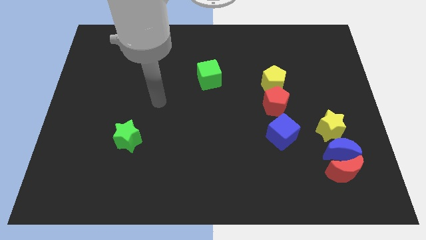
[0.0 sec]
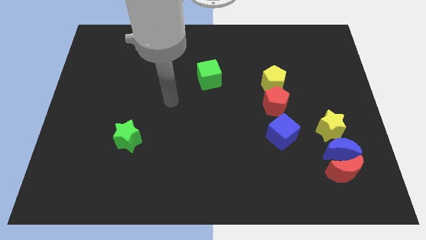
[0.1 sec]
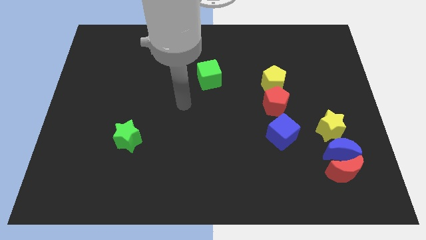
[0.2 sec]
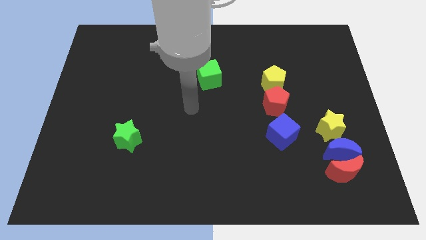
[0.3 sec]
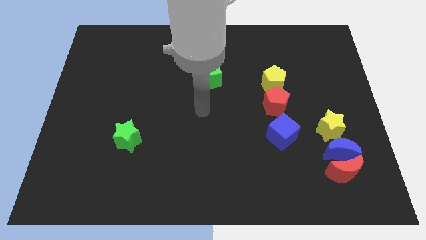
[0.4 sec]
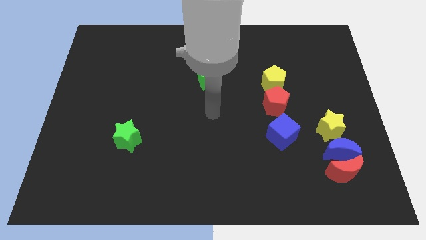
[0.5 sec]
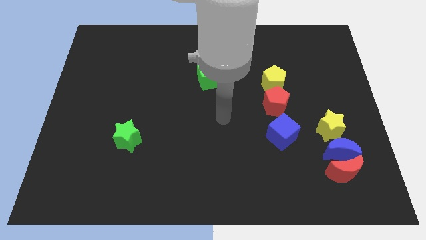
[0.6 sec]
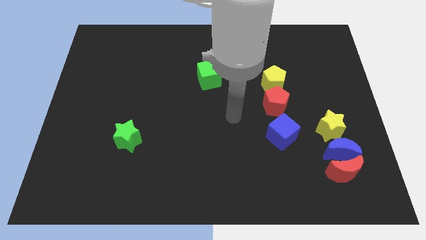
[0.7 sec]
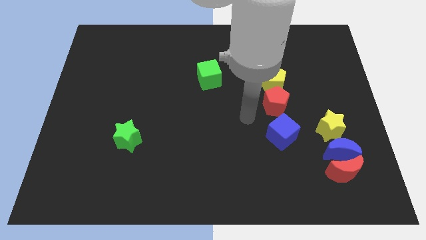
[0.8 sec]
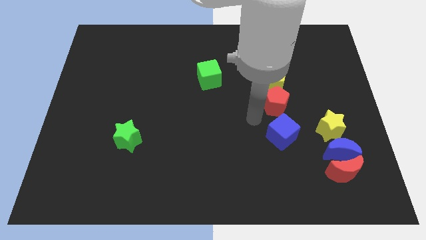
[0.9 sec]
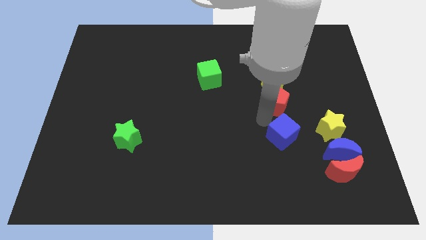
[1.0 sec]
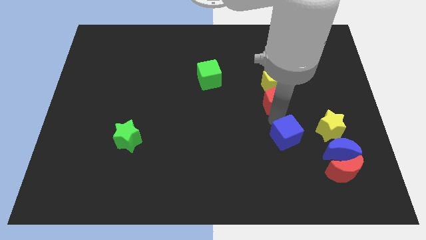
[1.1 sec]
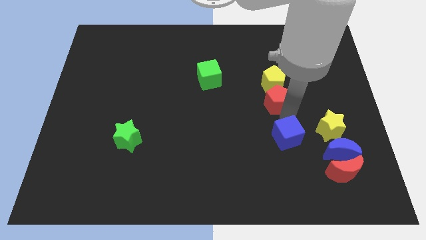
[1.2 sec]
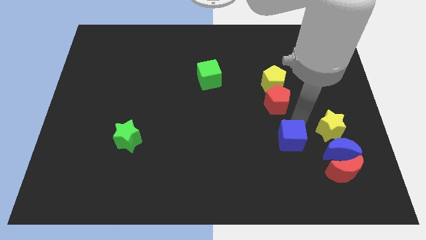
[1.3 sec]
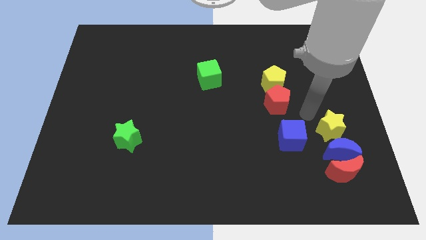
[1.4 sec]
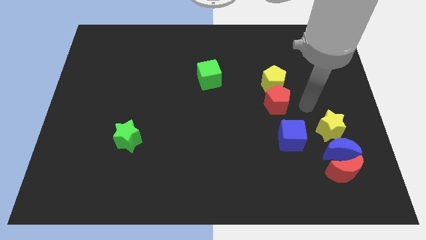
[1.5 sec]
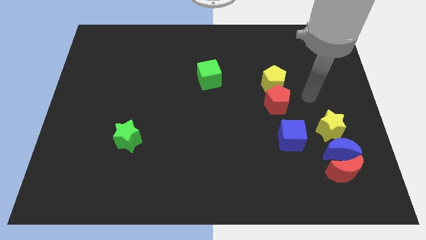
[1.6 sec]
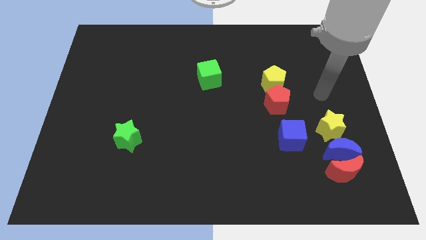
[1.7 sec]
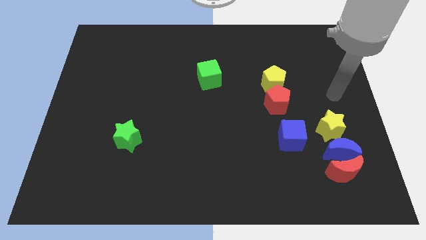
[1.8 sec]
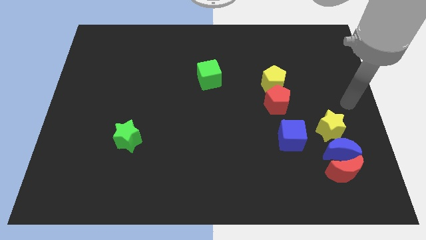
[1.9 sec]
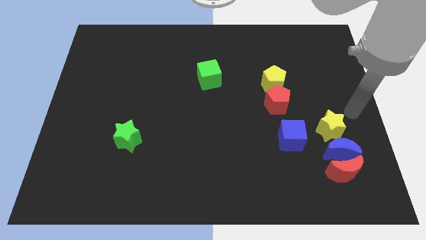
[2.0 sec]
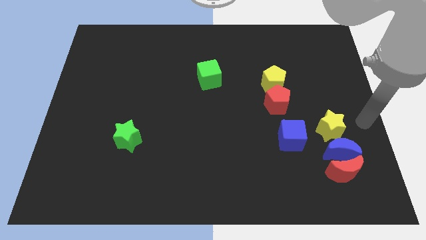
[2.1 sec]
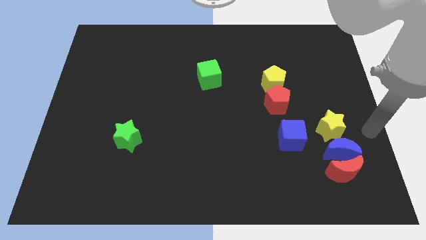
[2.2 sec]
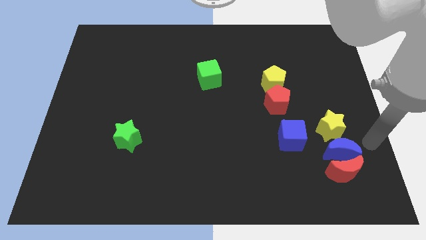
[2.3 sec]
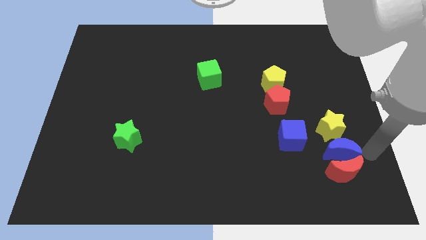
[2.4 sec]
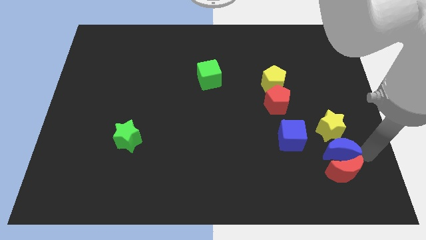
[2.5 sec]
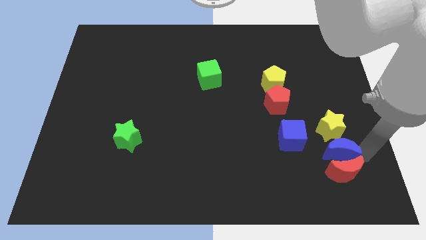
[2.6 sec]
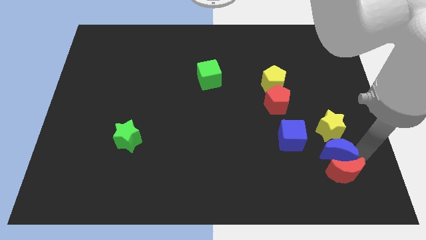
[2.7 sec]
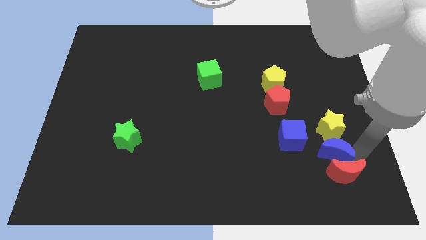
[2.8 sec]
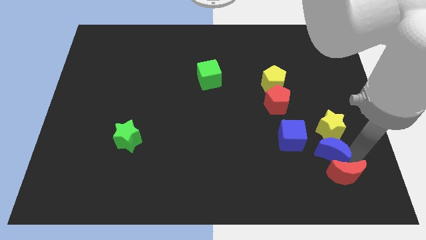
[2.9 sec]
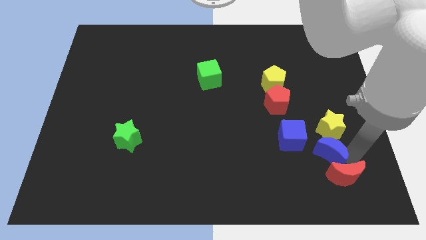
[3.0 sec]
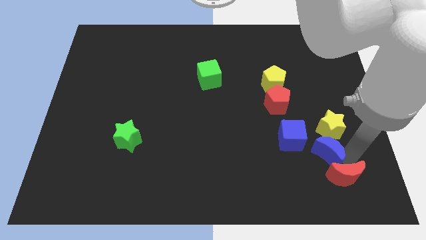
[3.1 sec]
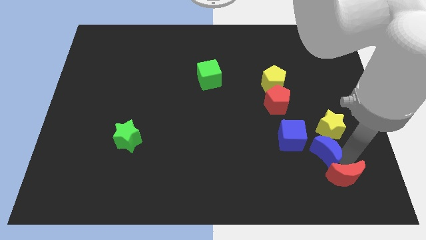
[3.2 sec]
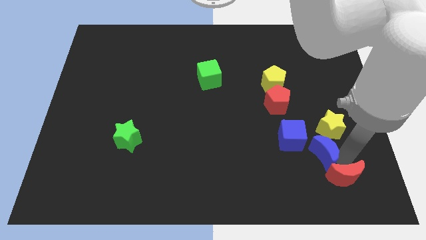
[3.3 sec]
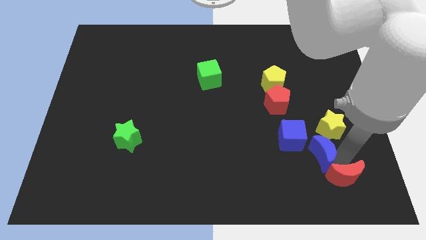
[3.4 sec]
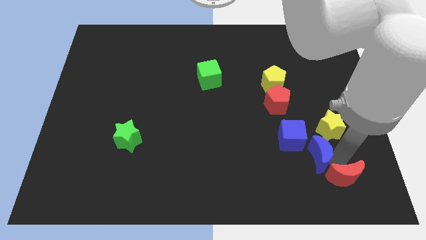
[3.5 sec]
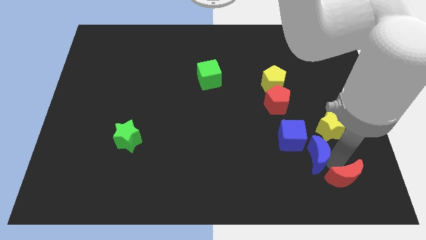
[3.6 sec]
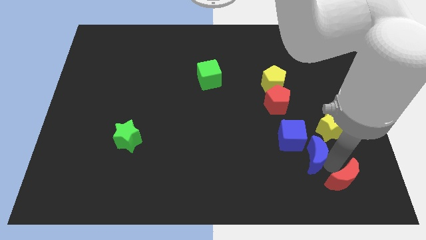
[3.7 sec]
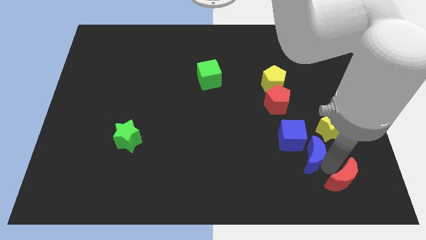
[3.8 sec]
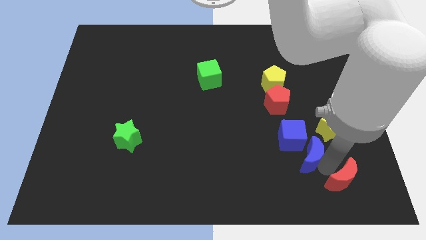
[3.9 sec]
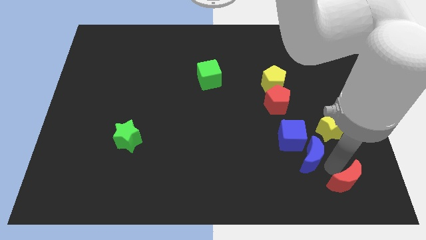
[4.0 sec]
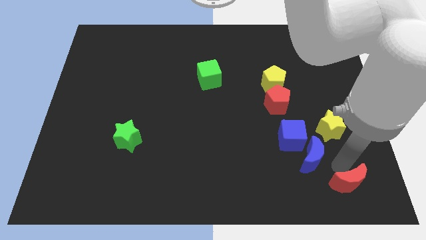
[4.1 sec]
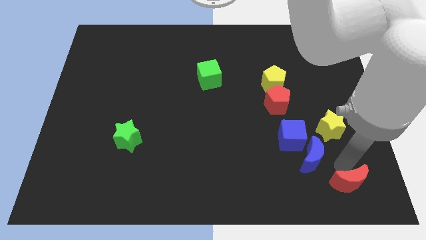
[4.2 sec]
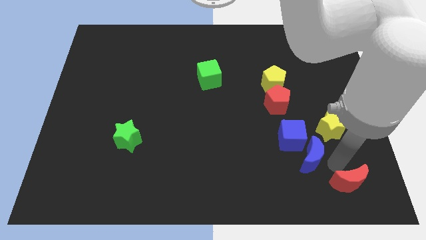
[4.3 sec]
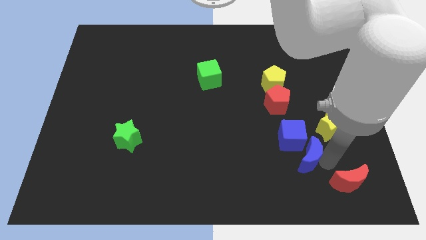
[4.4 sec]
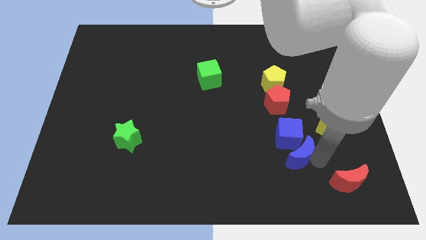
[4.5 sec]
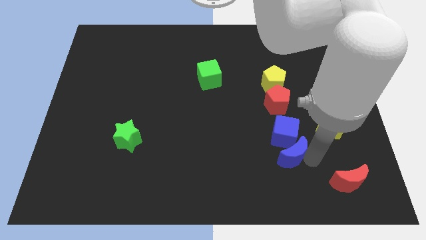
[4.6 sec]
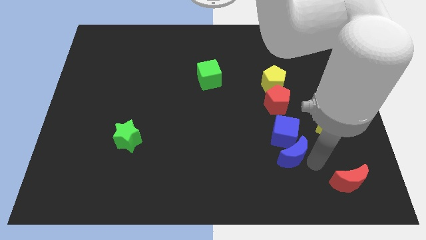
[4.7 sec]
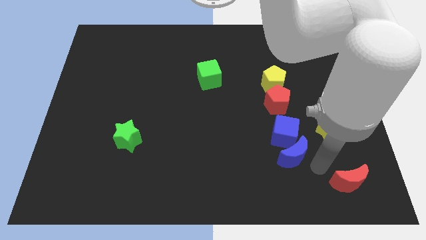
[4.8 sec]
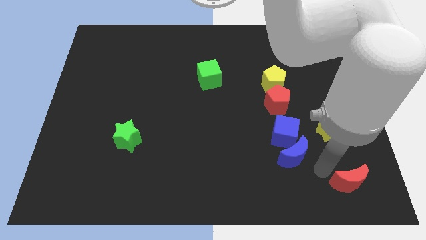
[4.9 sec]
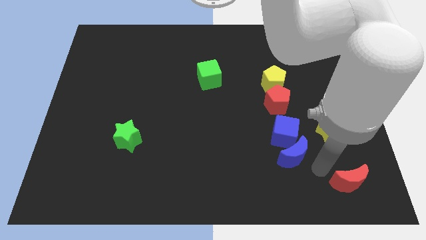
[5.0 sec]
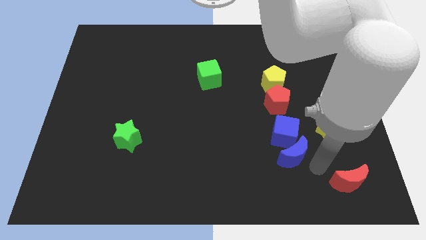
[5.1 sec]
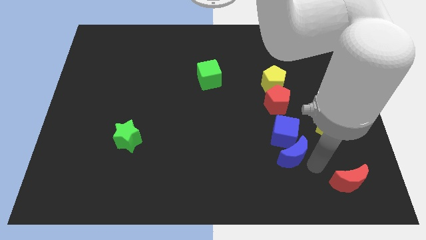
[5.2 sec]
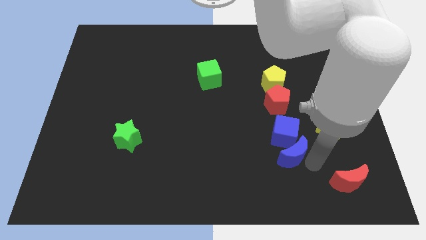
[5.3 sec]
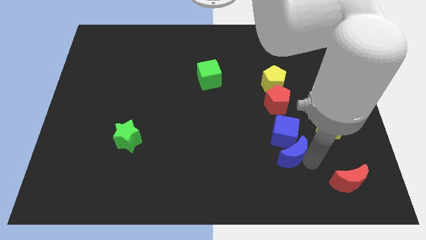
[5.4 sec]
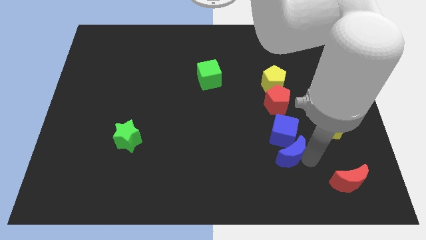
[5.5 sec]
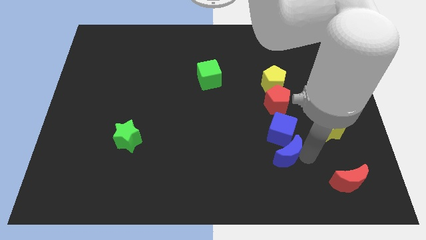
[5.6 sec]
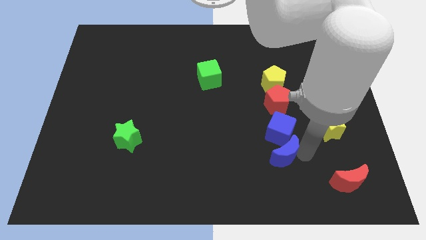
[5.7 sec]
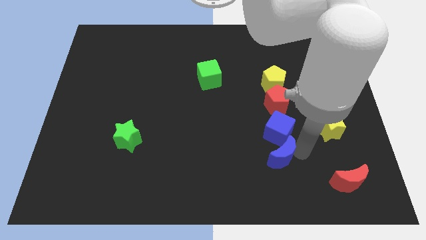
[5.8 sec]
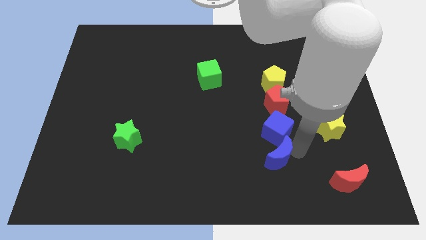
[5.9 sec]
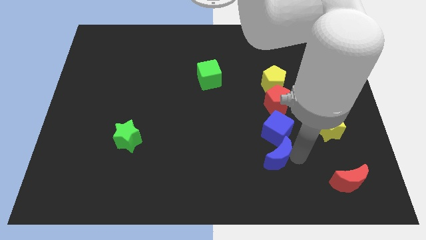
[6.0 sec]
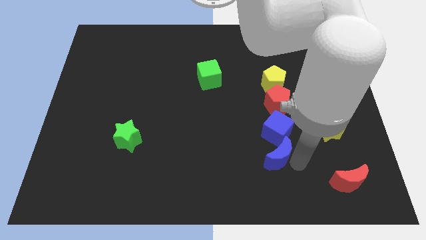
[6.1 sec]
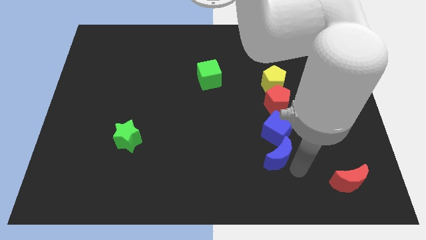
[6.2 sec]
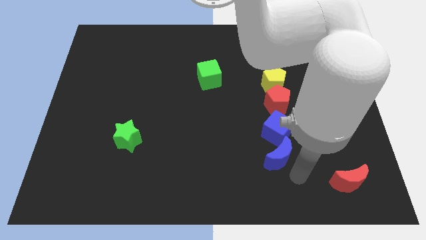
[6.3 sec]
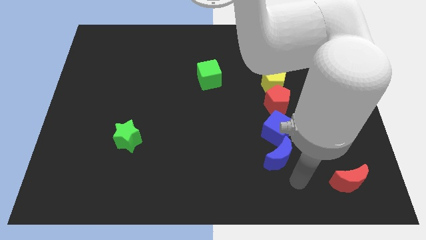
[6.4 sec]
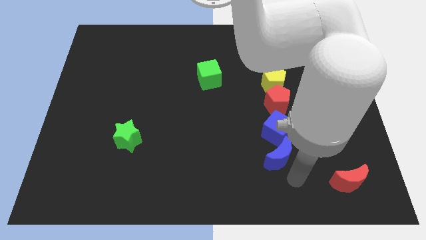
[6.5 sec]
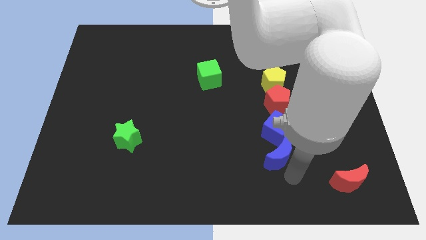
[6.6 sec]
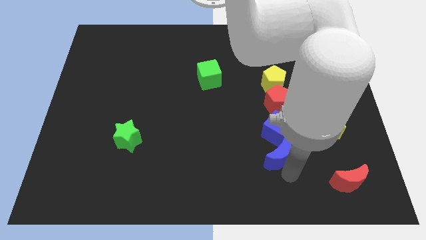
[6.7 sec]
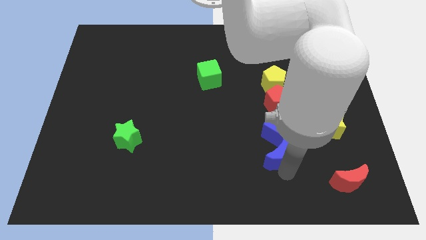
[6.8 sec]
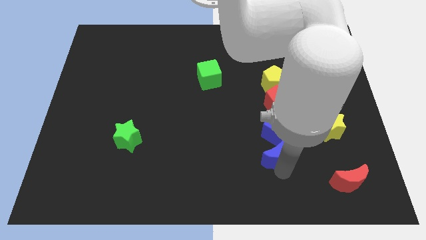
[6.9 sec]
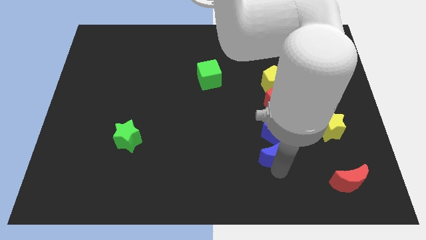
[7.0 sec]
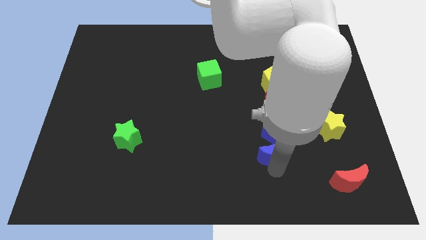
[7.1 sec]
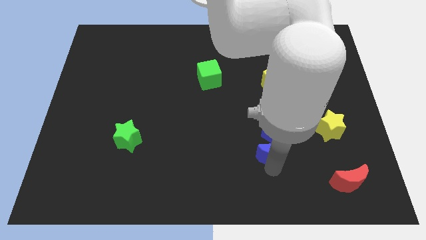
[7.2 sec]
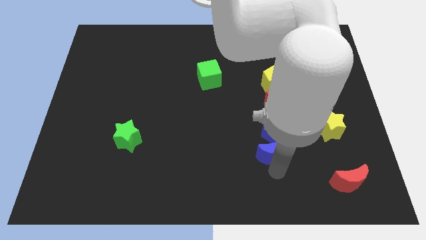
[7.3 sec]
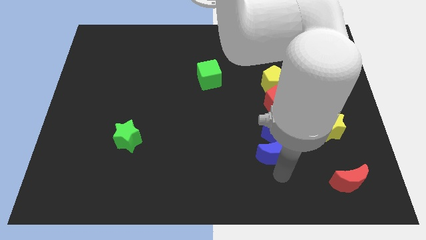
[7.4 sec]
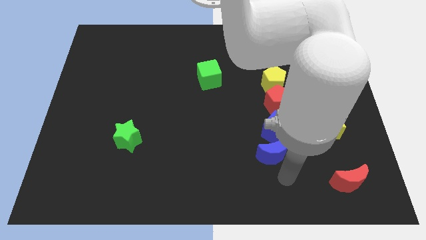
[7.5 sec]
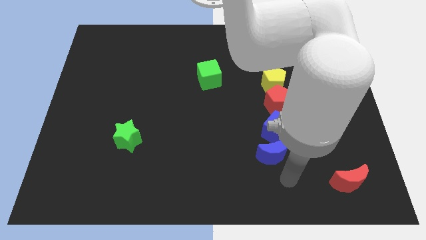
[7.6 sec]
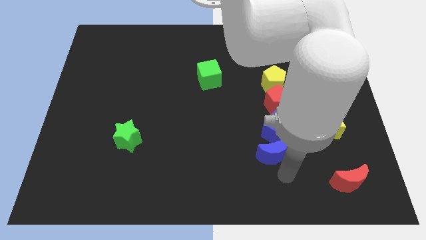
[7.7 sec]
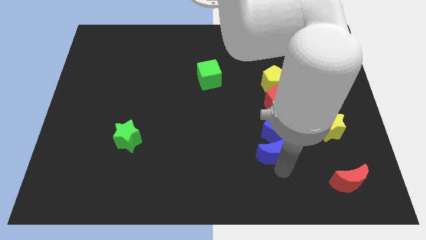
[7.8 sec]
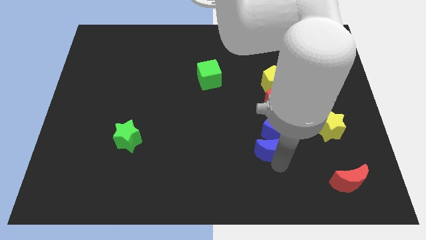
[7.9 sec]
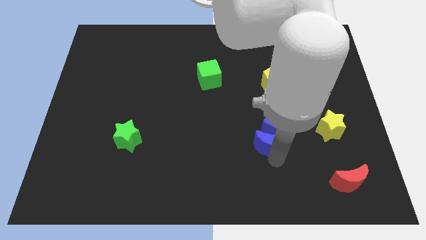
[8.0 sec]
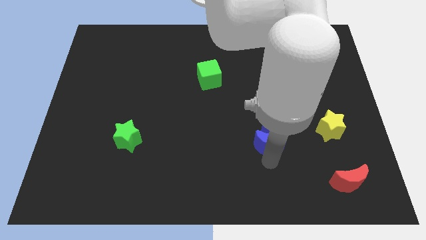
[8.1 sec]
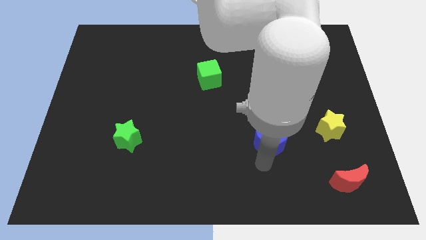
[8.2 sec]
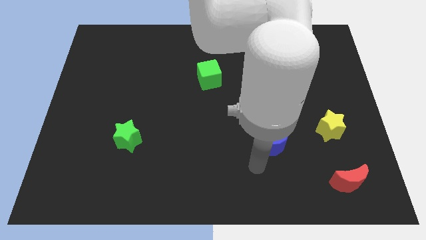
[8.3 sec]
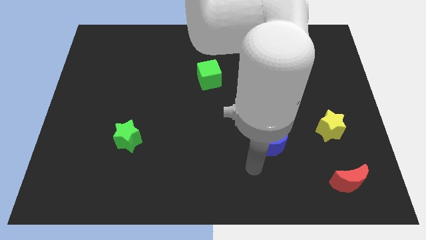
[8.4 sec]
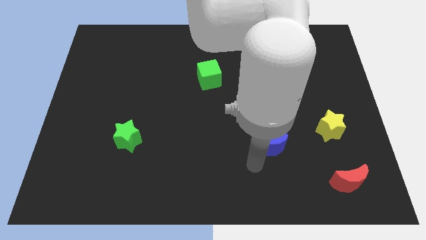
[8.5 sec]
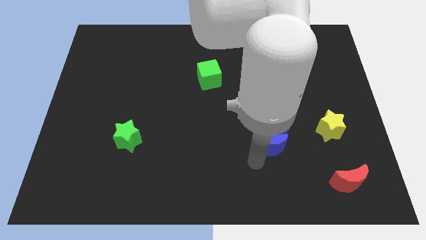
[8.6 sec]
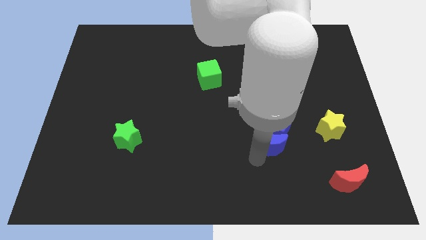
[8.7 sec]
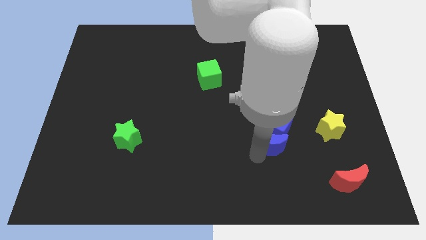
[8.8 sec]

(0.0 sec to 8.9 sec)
put the blue moon to the left side of the yellow star
